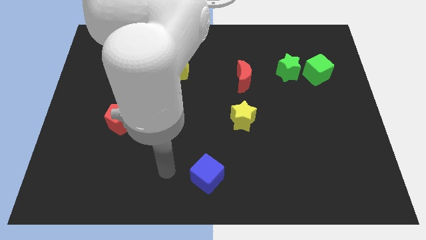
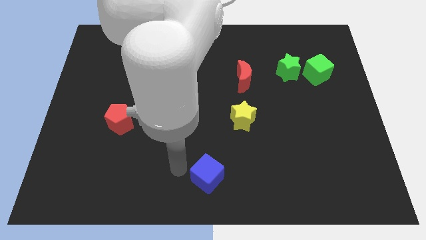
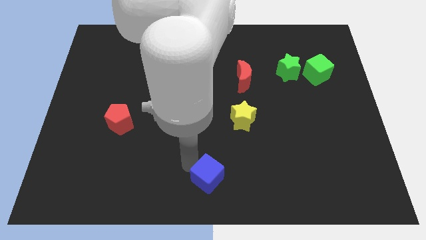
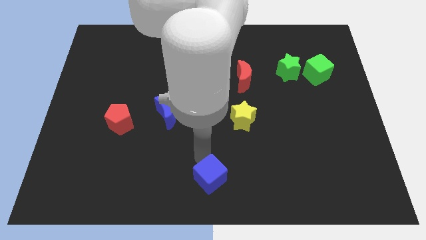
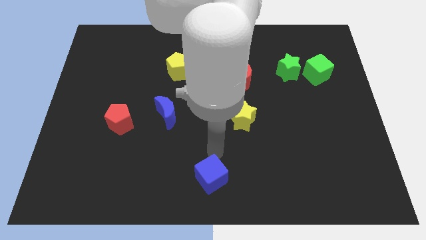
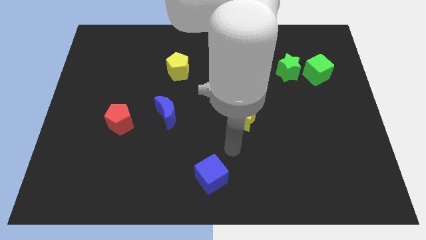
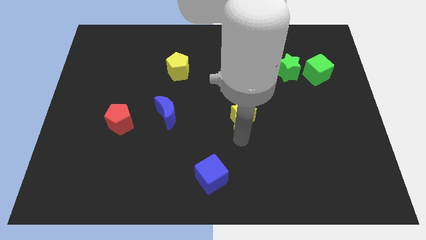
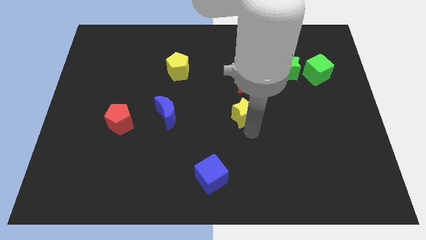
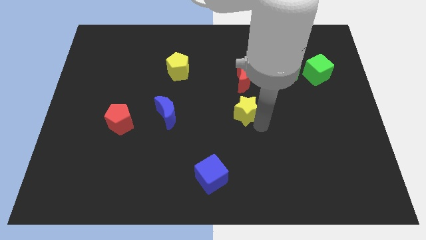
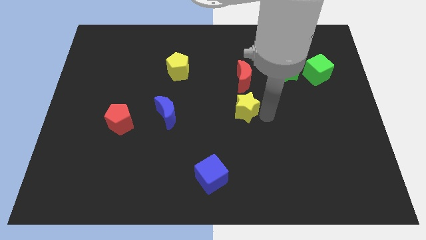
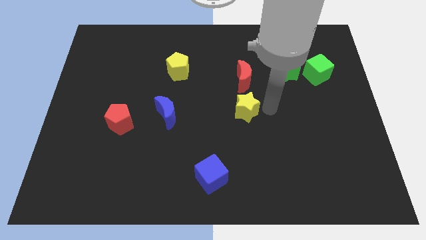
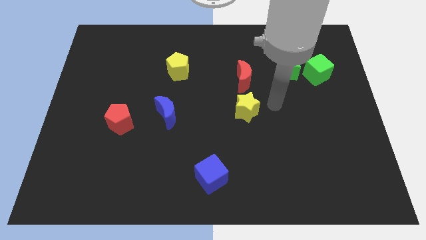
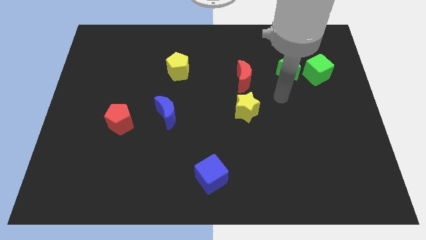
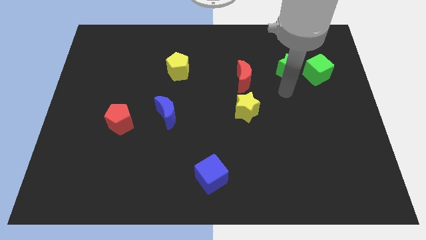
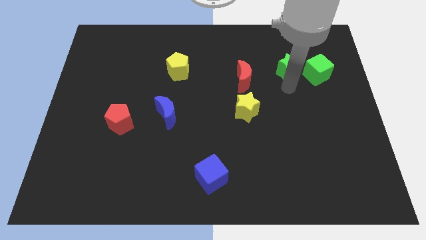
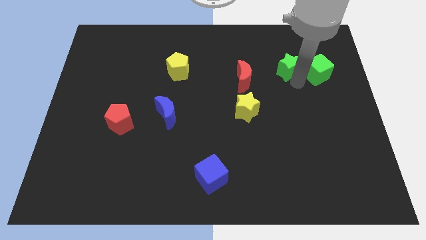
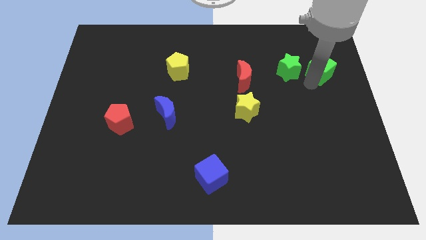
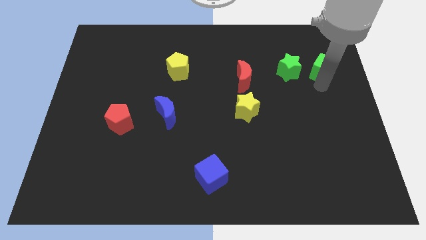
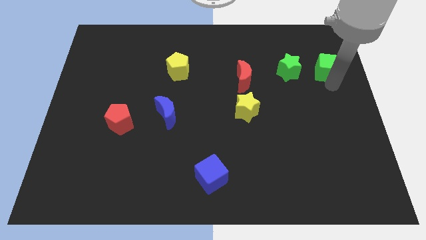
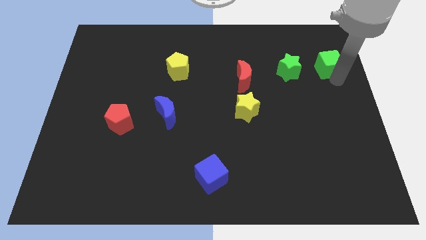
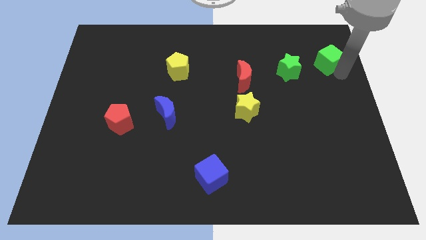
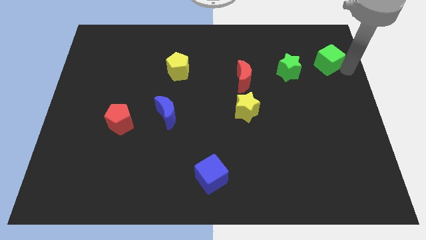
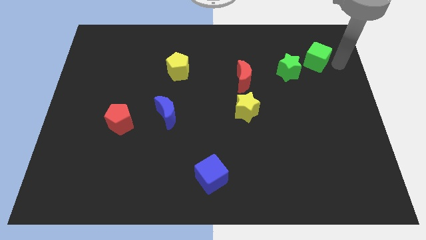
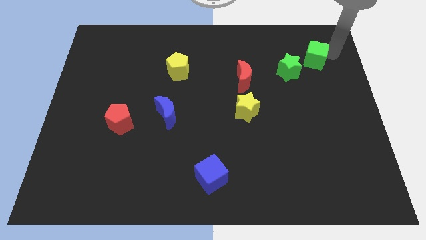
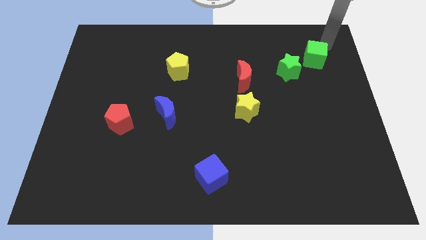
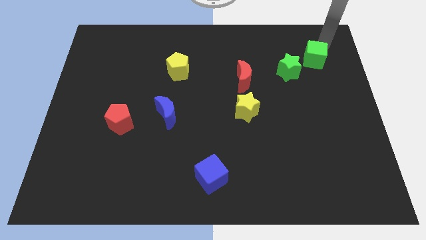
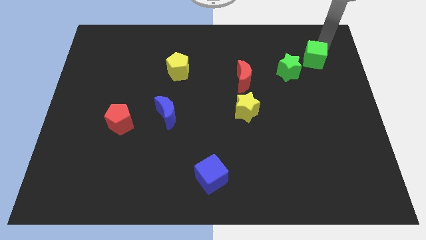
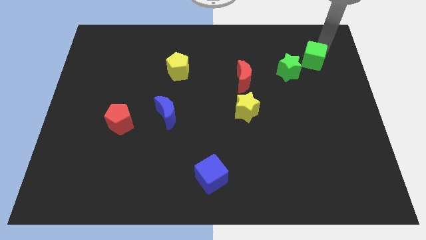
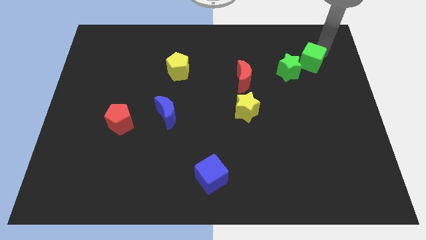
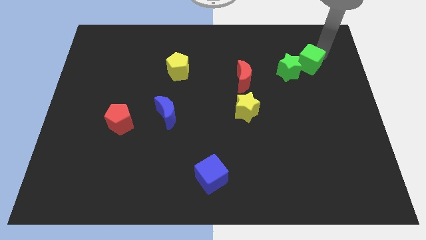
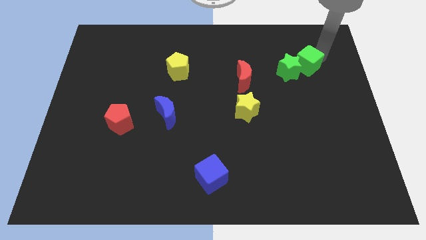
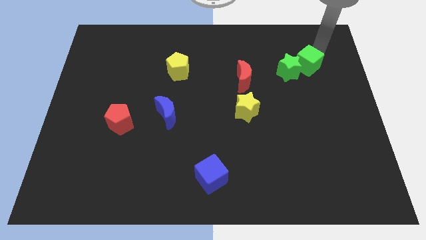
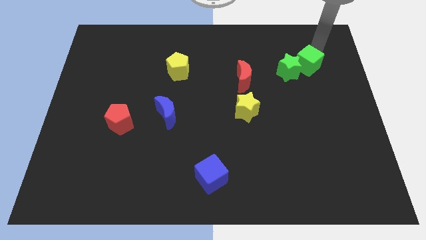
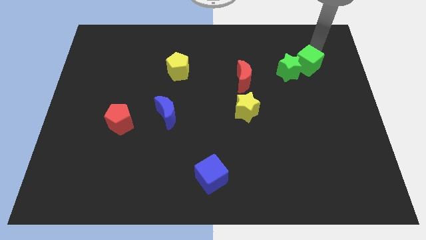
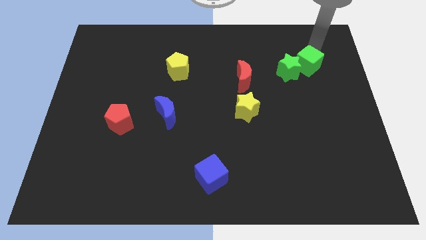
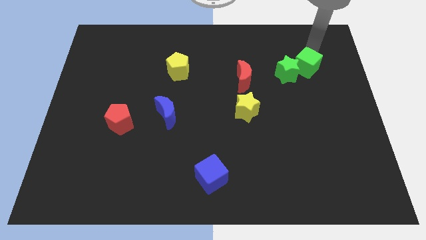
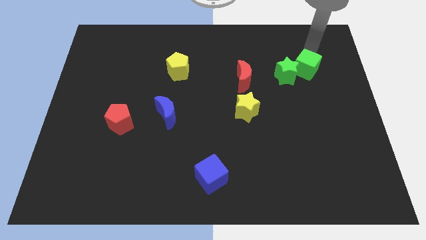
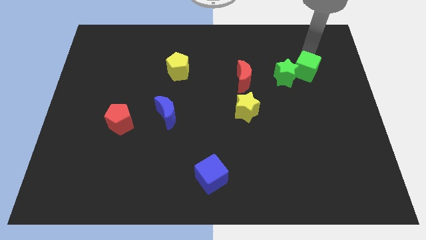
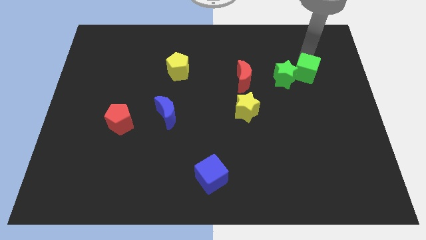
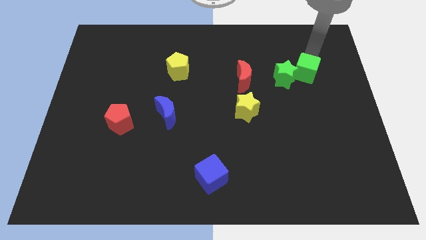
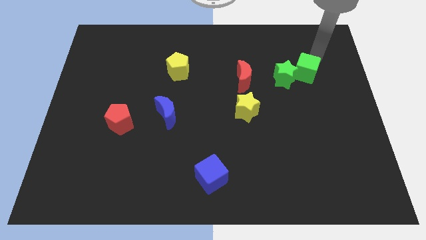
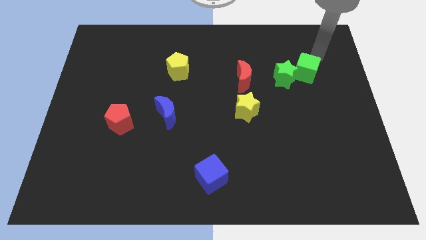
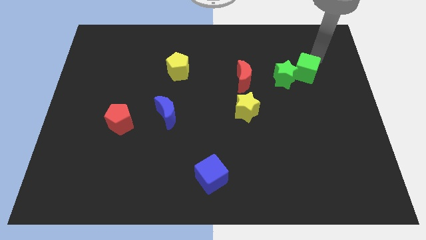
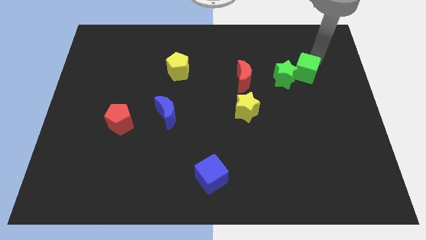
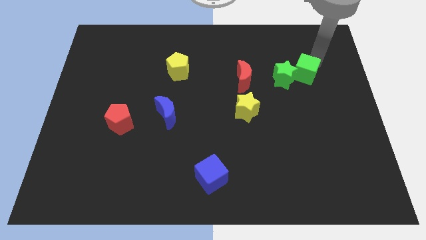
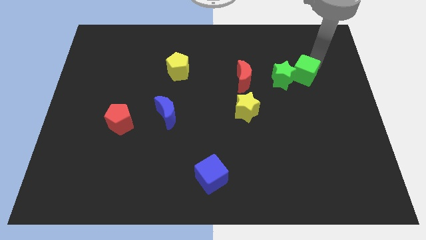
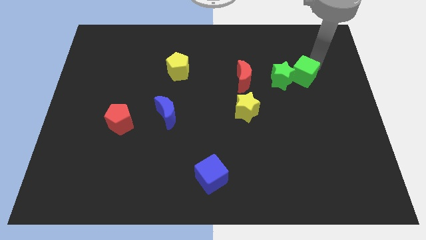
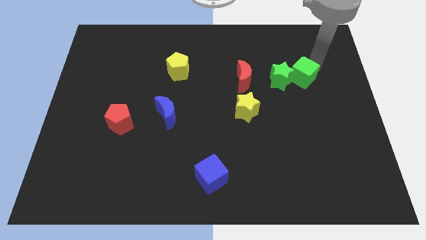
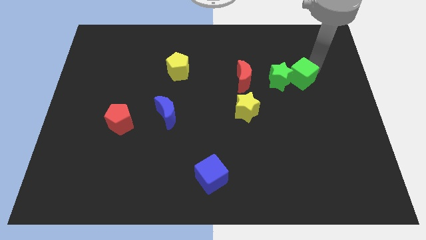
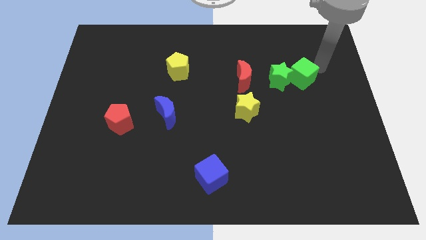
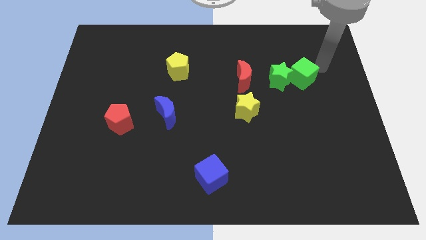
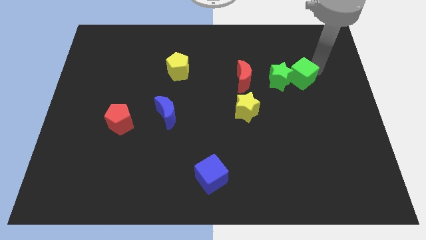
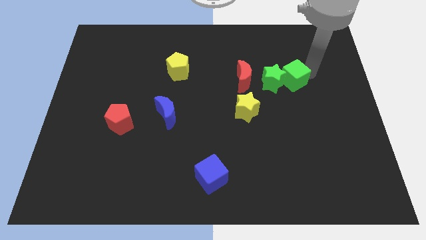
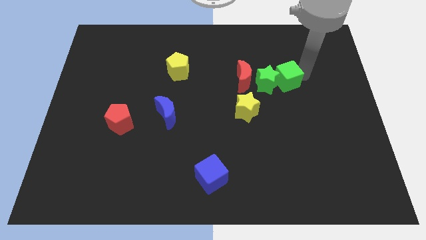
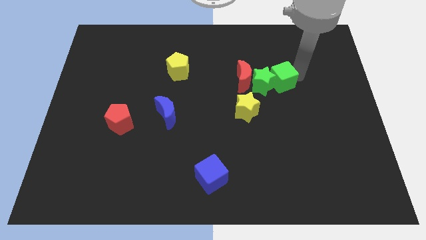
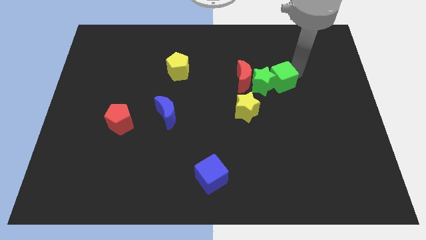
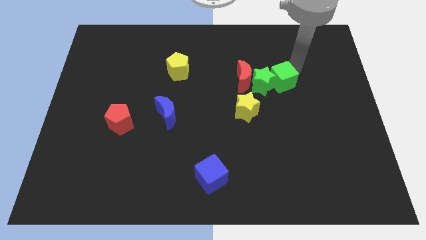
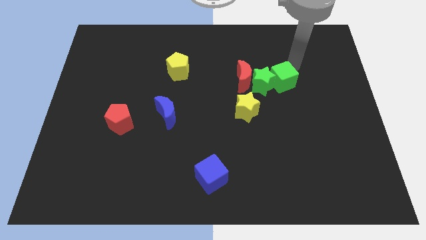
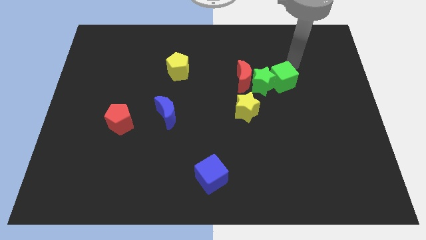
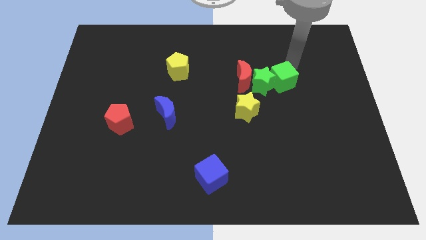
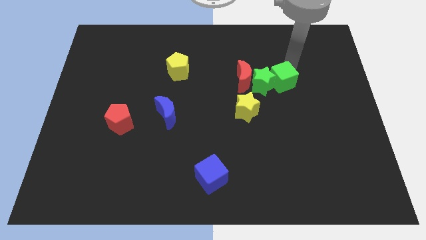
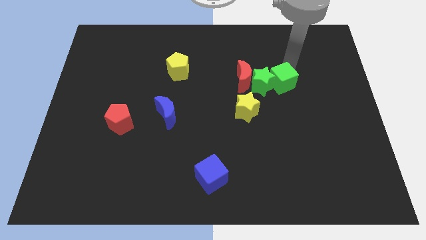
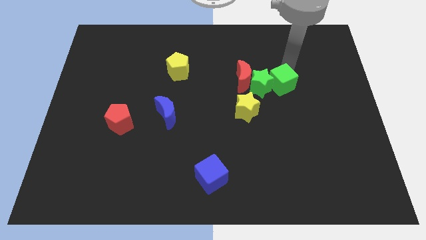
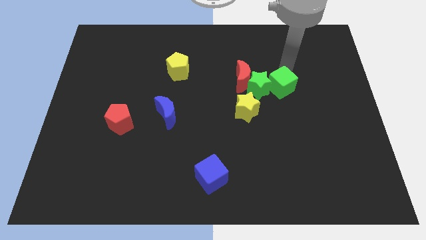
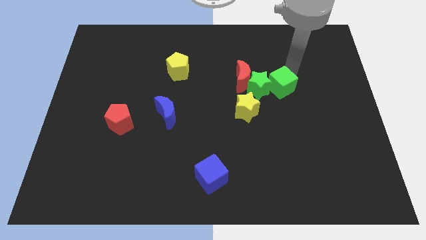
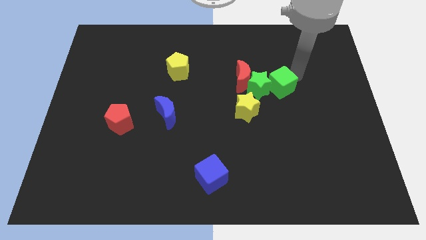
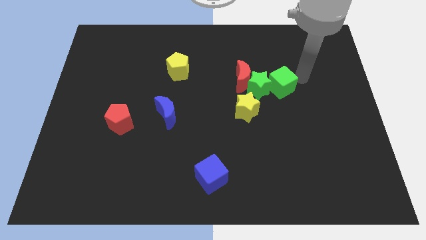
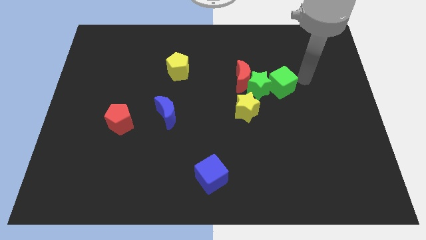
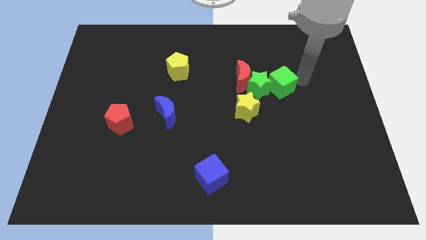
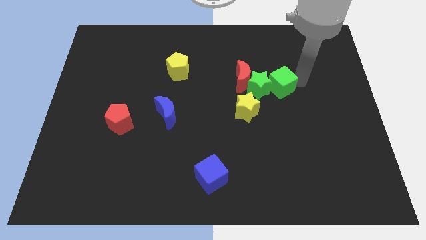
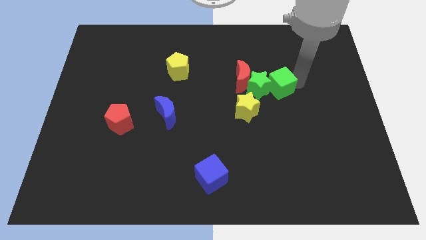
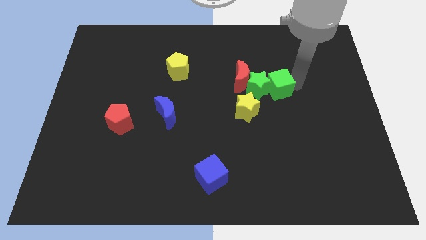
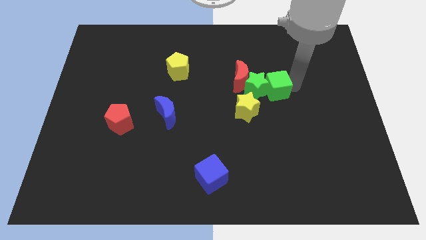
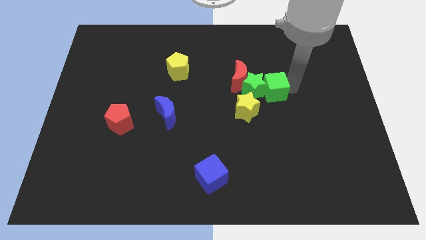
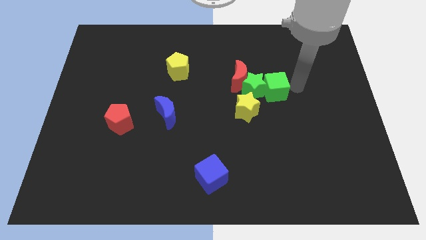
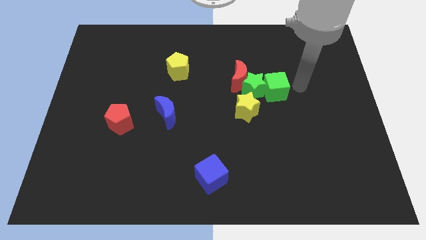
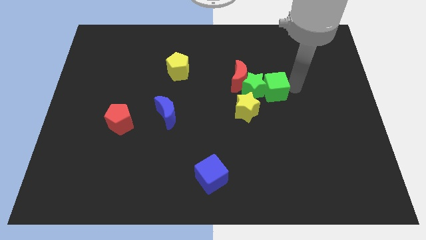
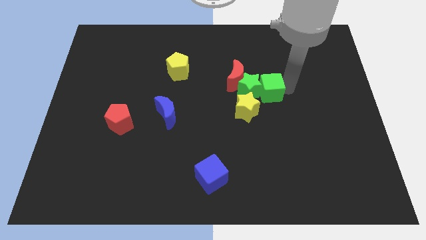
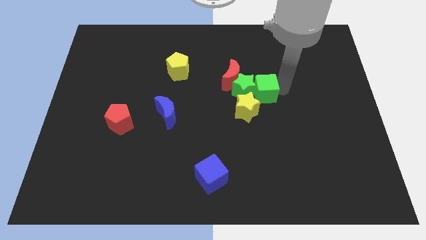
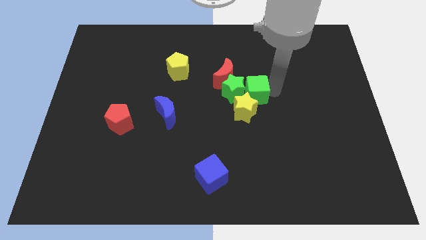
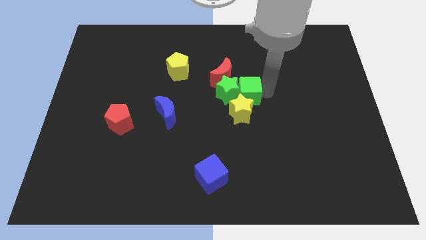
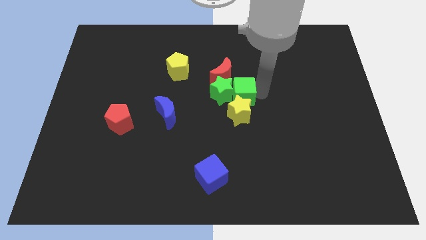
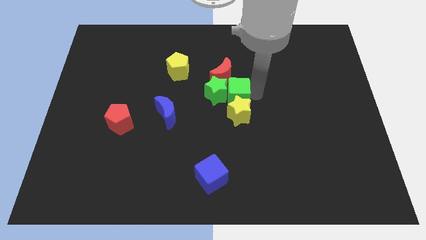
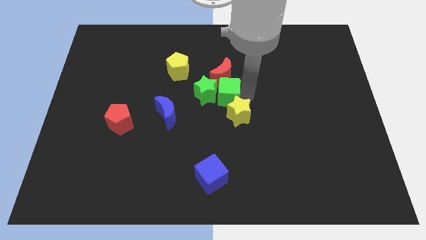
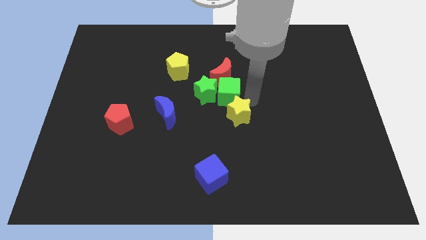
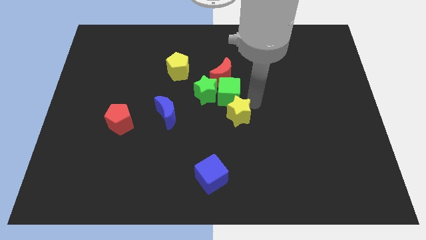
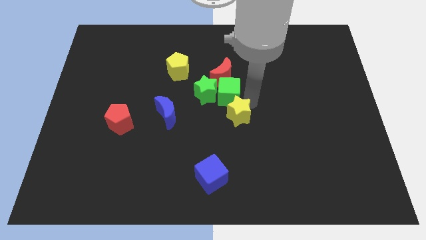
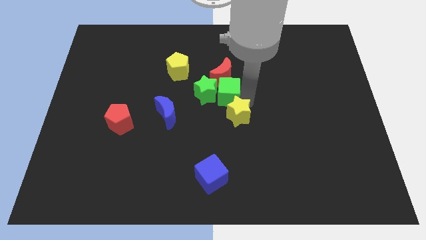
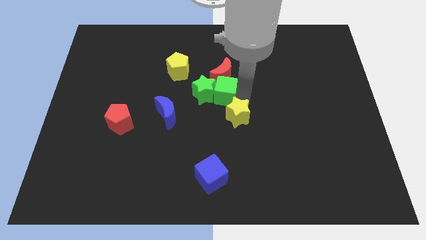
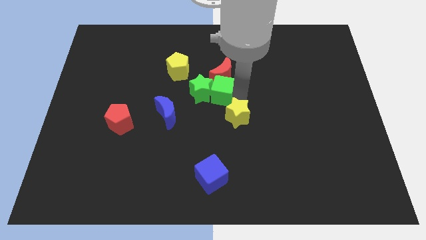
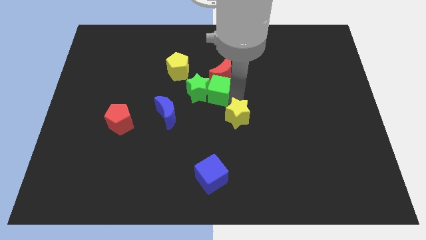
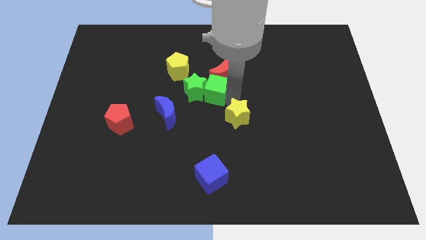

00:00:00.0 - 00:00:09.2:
move the green cube to the bottom right of the yellow pentagon
